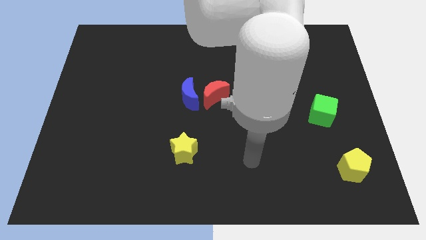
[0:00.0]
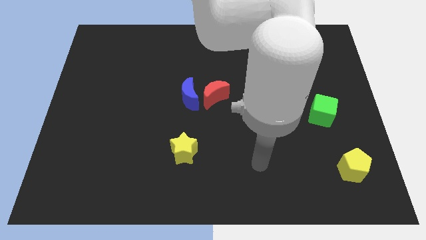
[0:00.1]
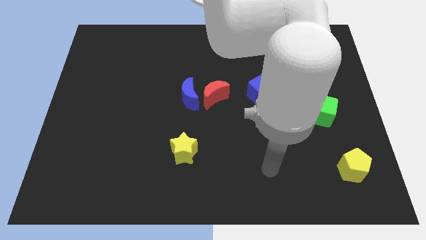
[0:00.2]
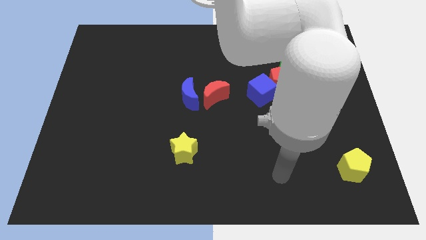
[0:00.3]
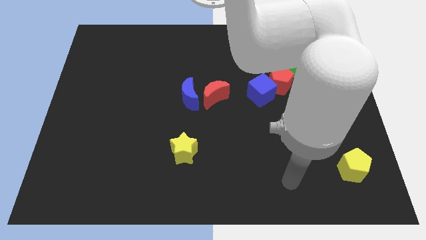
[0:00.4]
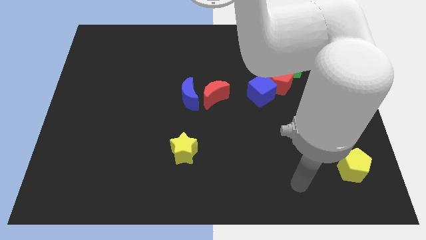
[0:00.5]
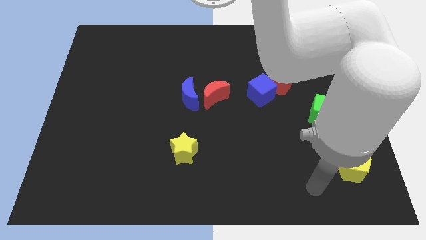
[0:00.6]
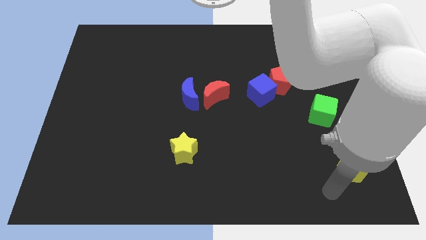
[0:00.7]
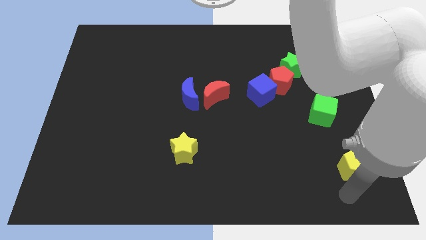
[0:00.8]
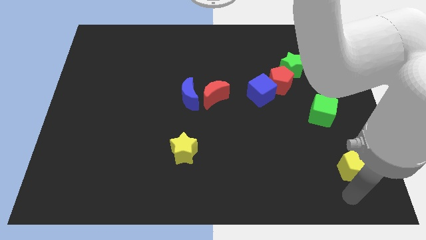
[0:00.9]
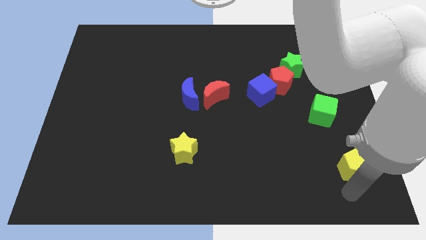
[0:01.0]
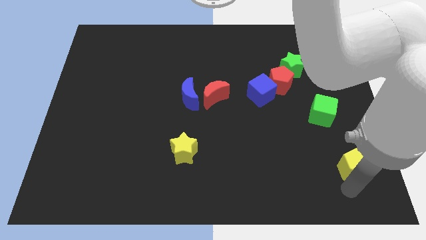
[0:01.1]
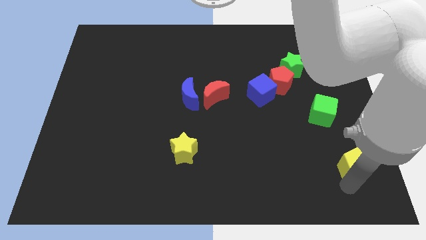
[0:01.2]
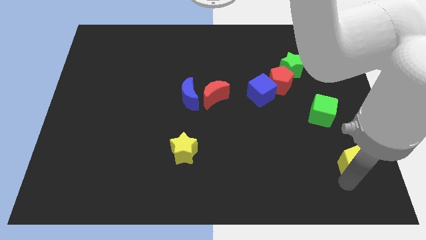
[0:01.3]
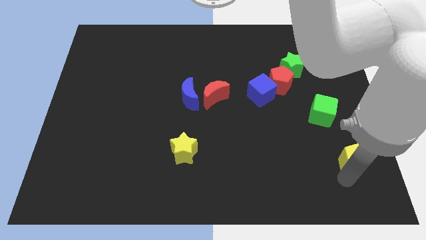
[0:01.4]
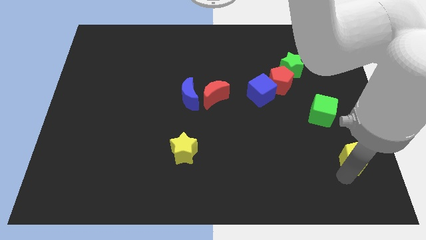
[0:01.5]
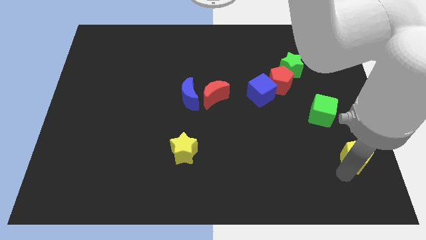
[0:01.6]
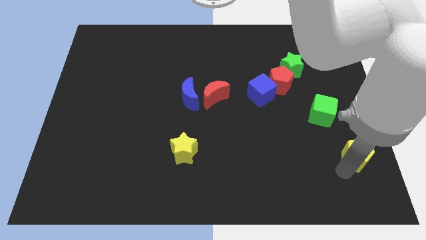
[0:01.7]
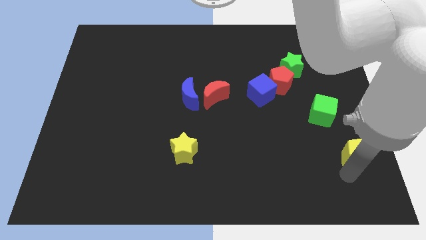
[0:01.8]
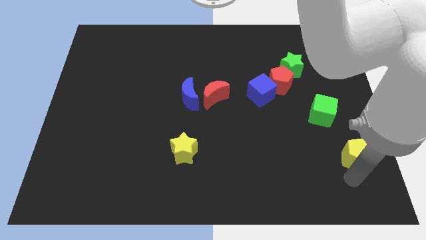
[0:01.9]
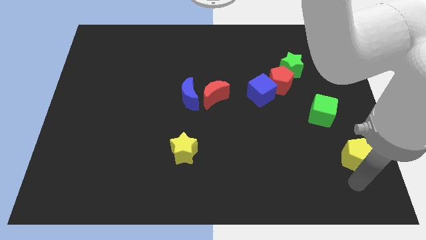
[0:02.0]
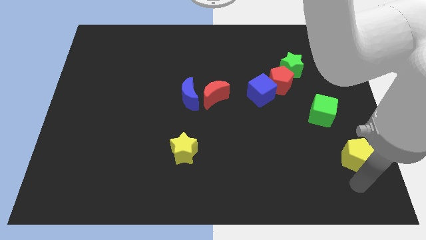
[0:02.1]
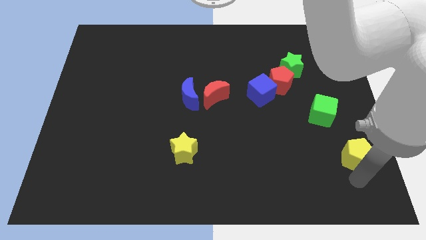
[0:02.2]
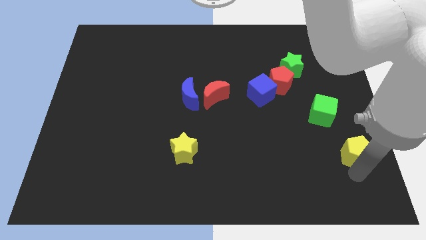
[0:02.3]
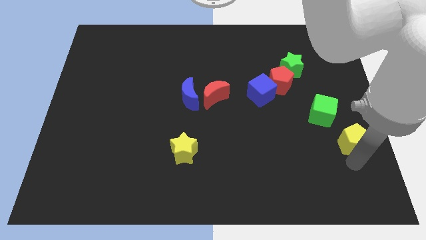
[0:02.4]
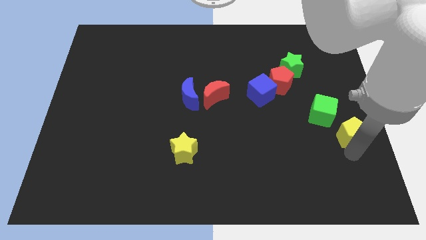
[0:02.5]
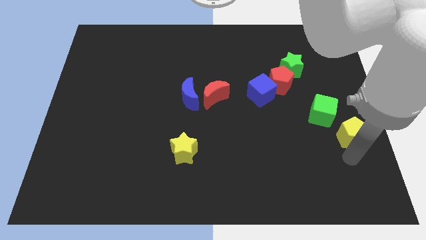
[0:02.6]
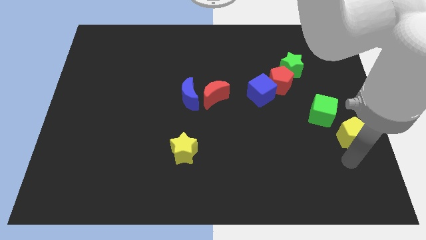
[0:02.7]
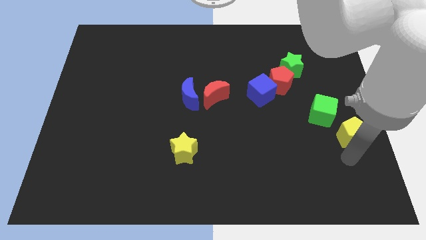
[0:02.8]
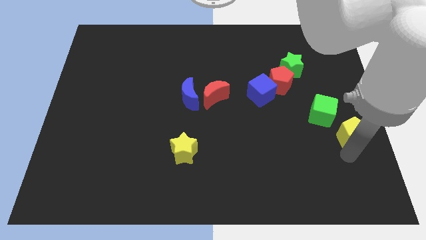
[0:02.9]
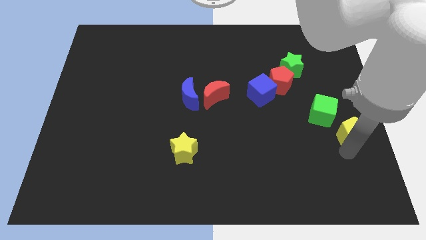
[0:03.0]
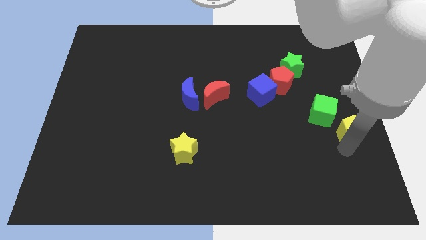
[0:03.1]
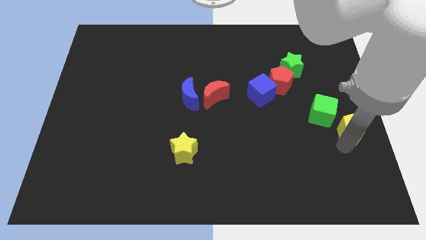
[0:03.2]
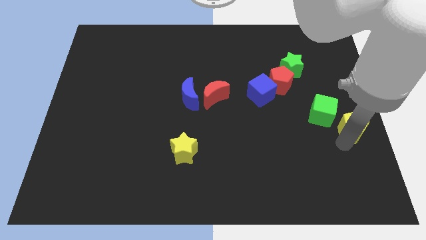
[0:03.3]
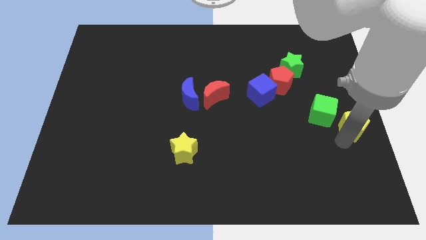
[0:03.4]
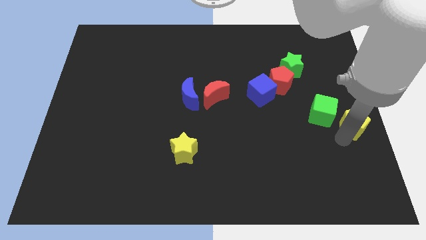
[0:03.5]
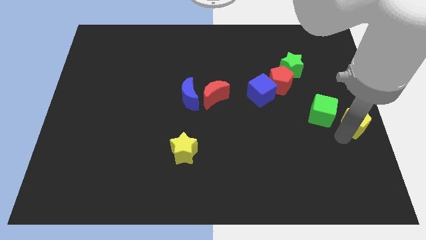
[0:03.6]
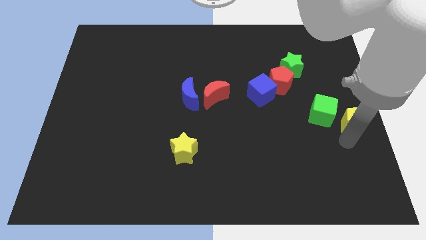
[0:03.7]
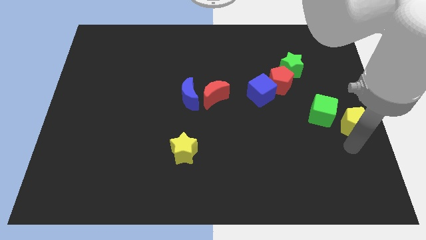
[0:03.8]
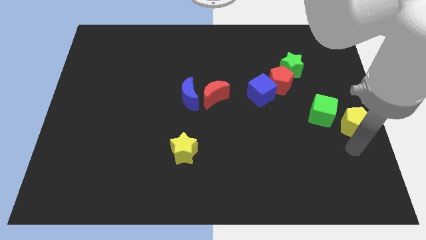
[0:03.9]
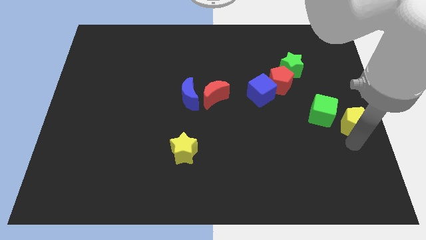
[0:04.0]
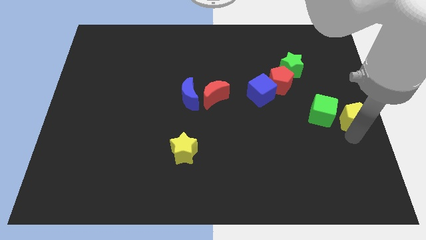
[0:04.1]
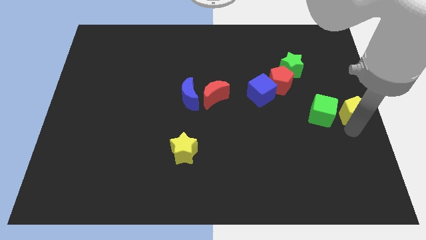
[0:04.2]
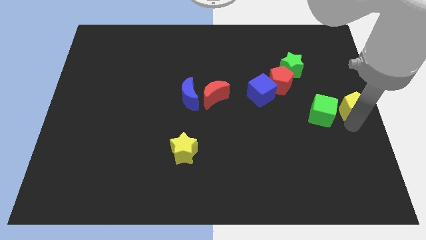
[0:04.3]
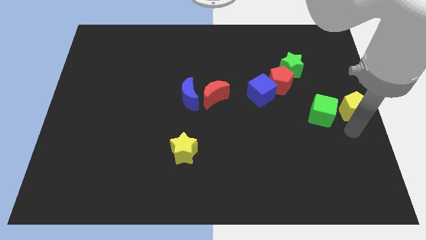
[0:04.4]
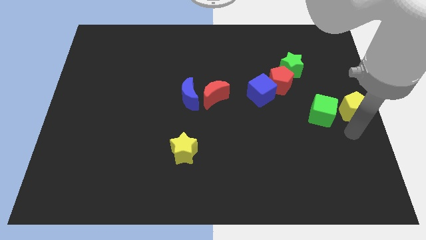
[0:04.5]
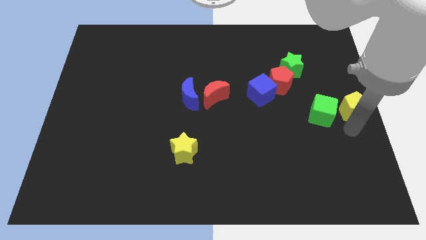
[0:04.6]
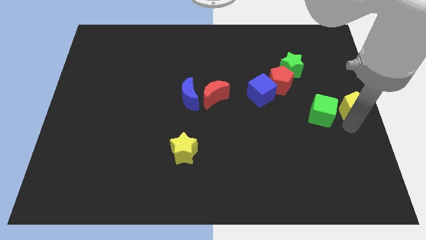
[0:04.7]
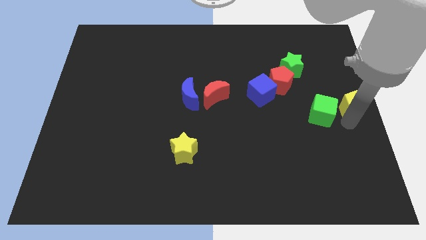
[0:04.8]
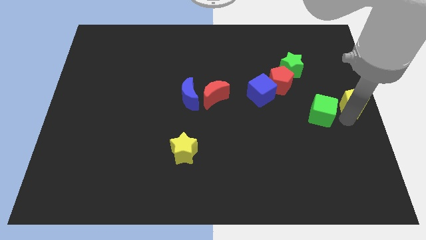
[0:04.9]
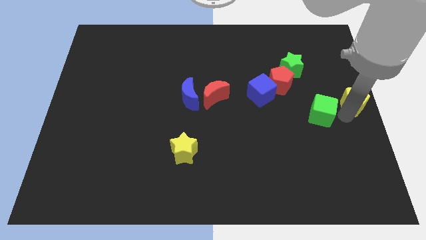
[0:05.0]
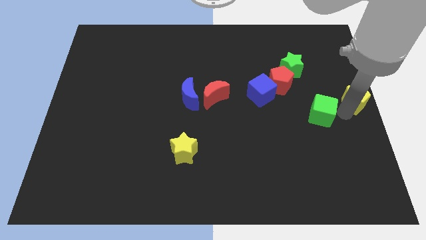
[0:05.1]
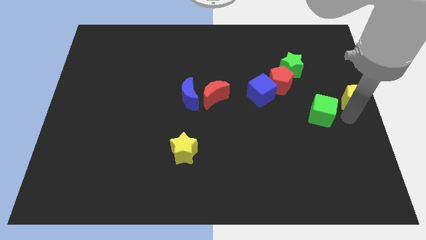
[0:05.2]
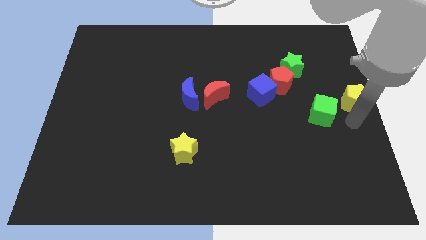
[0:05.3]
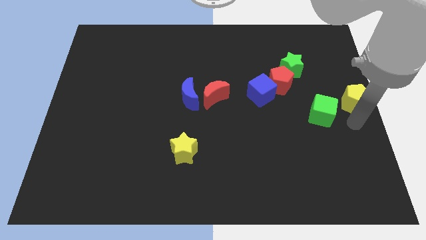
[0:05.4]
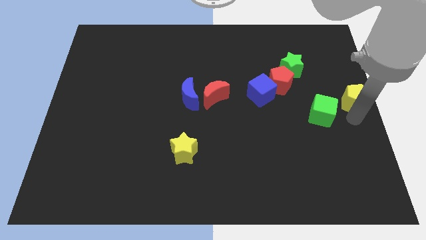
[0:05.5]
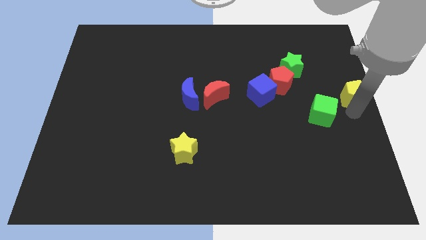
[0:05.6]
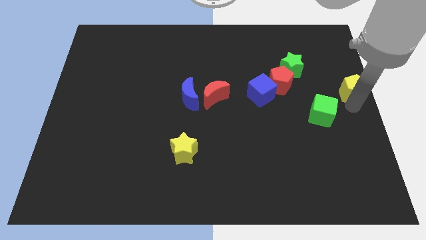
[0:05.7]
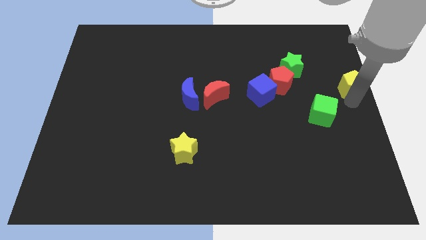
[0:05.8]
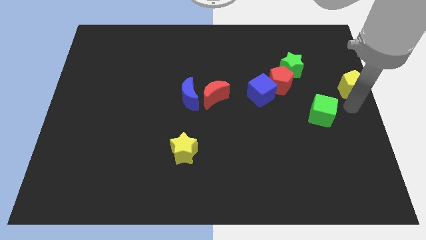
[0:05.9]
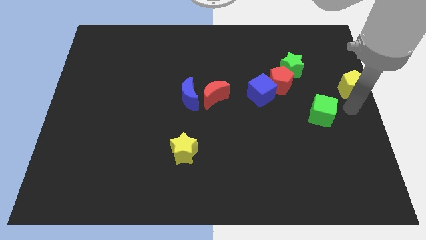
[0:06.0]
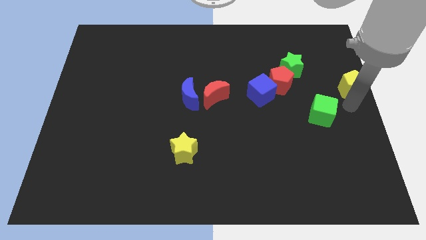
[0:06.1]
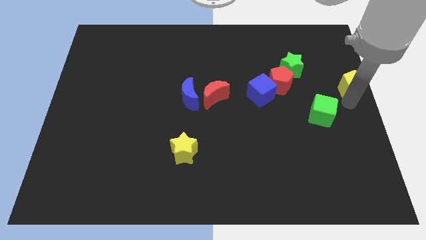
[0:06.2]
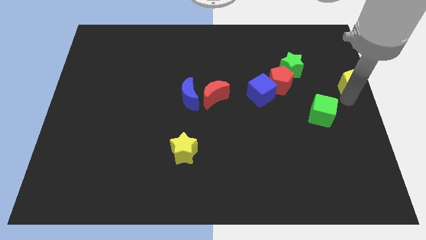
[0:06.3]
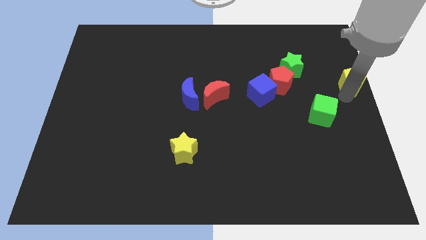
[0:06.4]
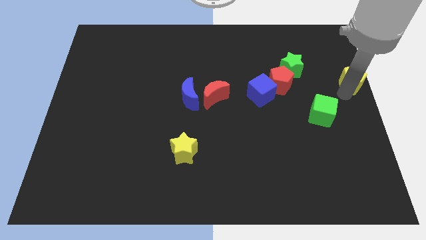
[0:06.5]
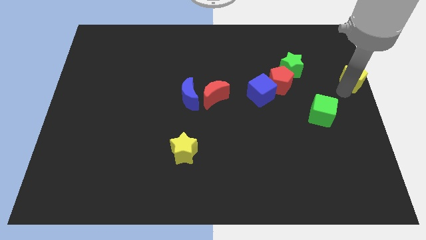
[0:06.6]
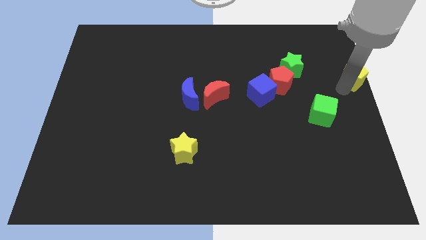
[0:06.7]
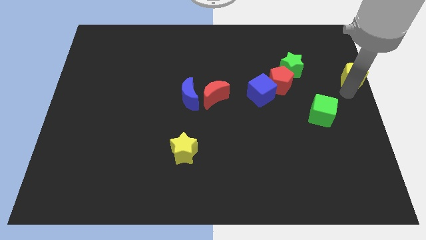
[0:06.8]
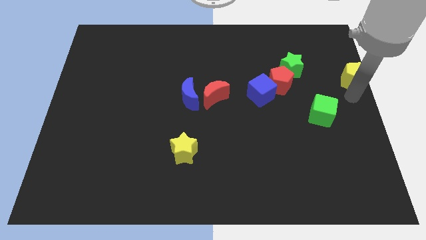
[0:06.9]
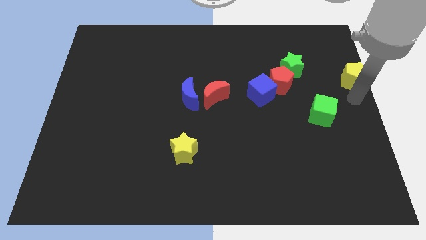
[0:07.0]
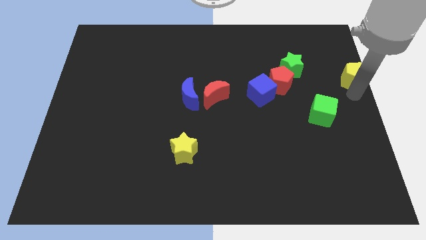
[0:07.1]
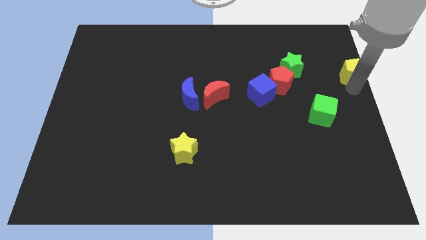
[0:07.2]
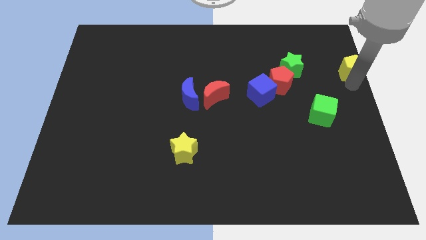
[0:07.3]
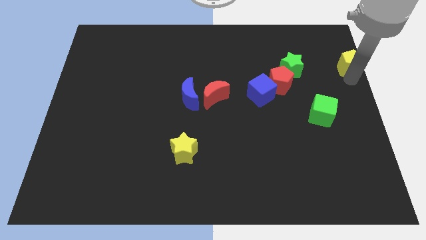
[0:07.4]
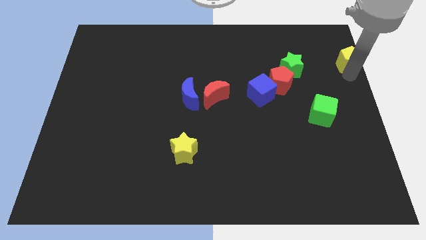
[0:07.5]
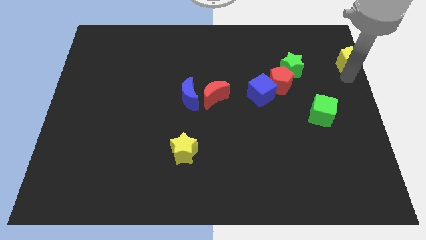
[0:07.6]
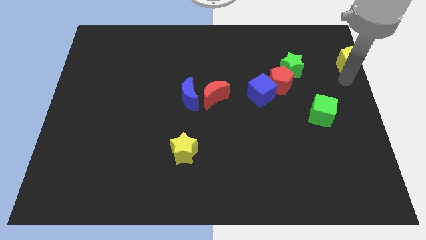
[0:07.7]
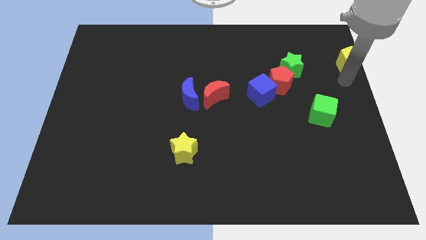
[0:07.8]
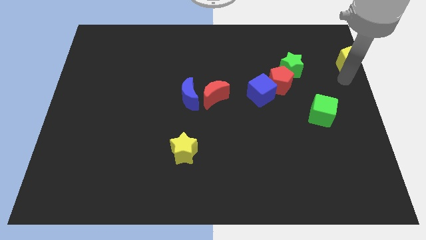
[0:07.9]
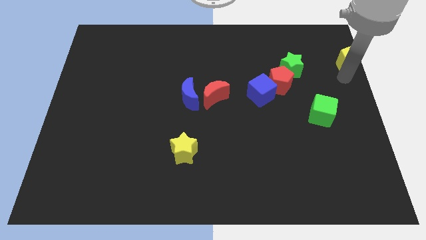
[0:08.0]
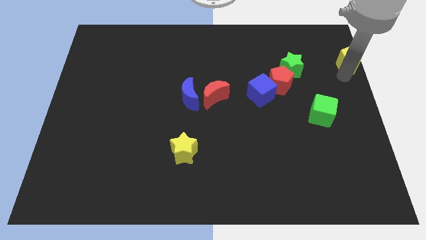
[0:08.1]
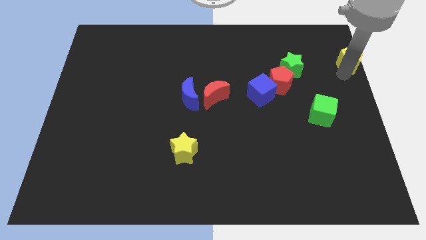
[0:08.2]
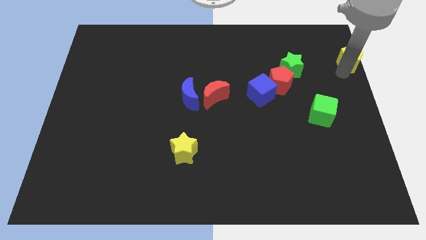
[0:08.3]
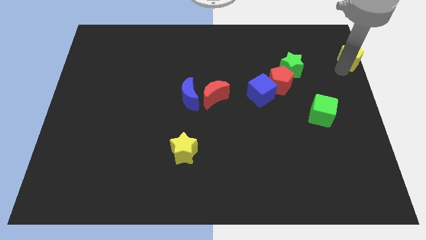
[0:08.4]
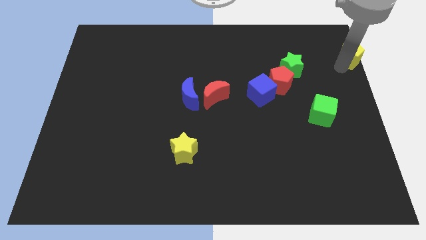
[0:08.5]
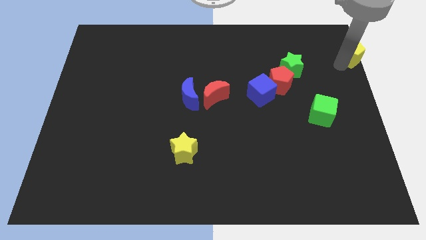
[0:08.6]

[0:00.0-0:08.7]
push the yellow pentagon to the top right corner
